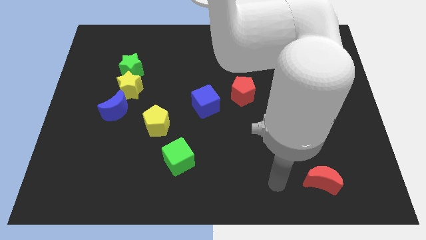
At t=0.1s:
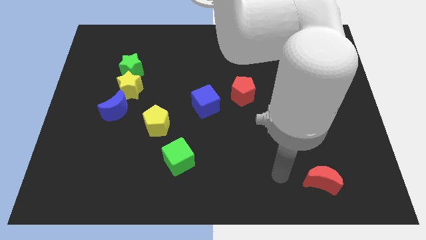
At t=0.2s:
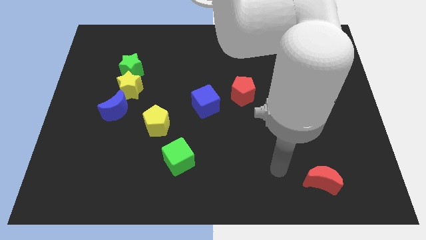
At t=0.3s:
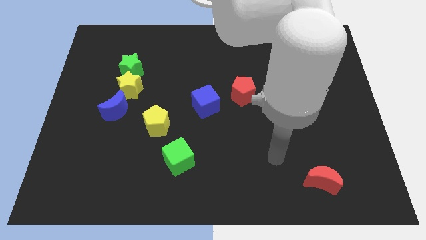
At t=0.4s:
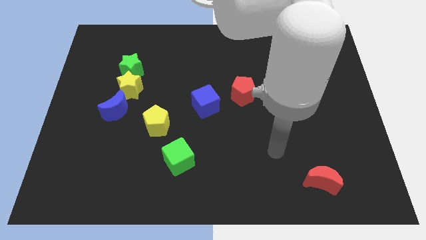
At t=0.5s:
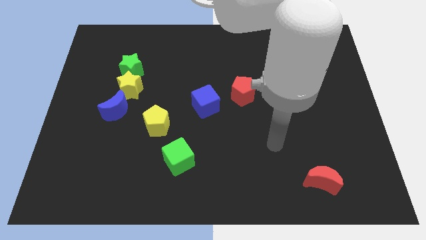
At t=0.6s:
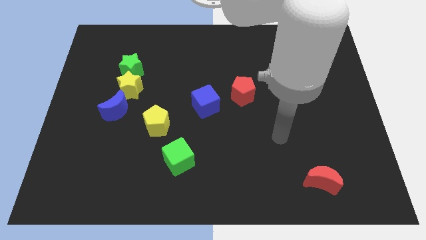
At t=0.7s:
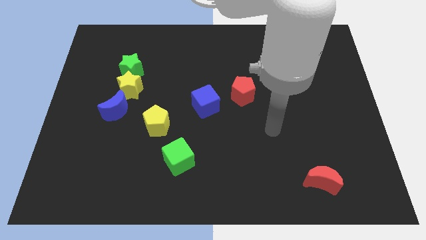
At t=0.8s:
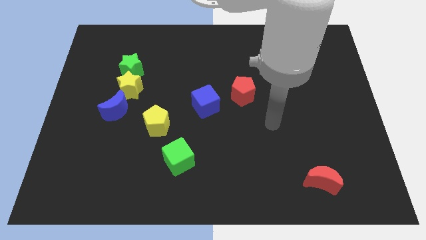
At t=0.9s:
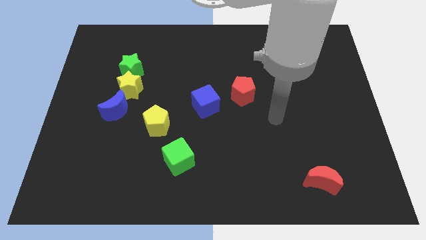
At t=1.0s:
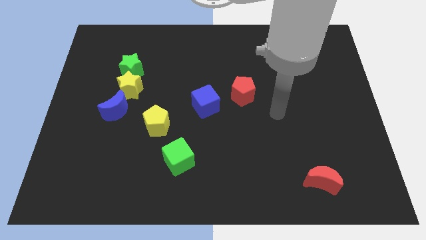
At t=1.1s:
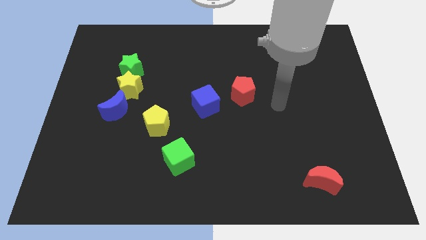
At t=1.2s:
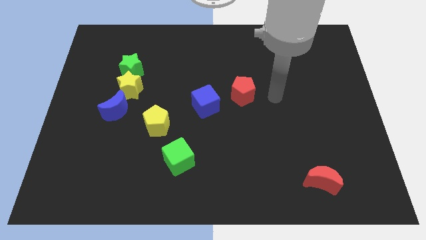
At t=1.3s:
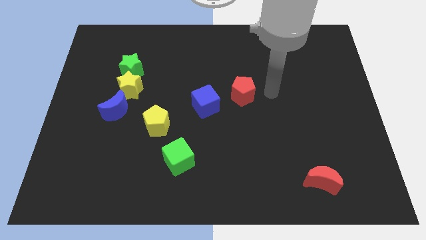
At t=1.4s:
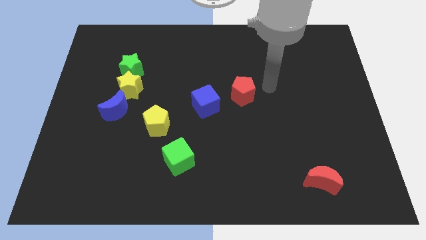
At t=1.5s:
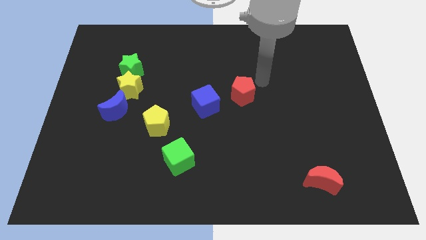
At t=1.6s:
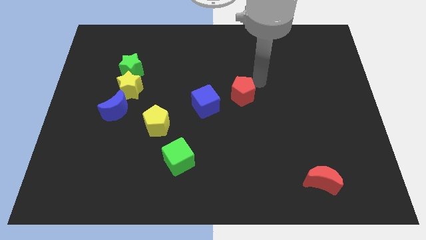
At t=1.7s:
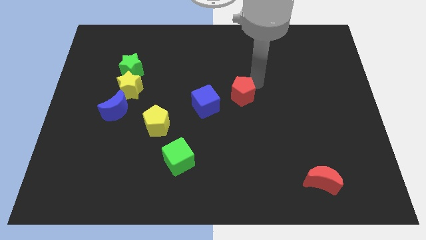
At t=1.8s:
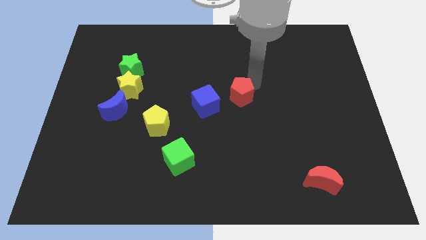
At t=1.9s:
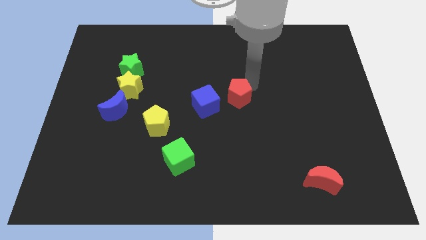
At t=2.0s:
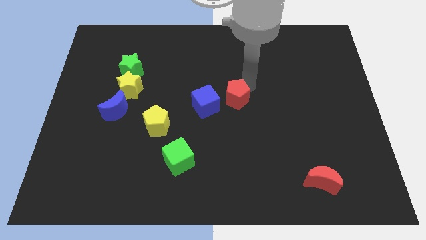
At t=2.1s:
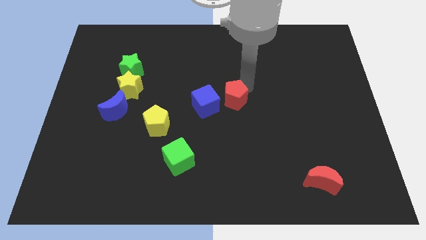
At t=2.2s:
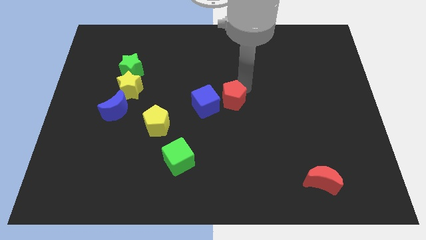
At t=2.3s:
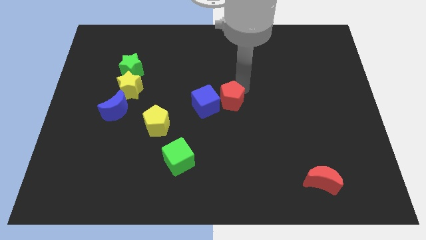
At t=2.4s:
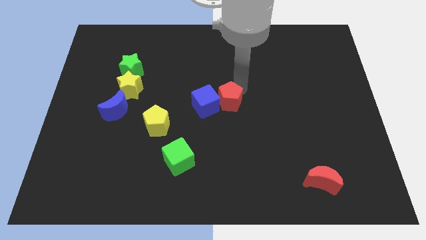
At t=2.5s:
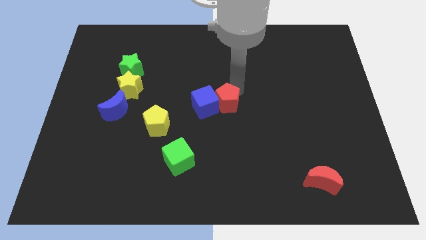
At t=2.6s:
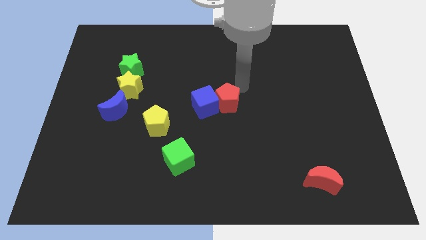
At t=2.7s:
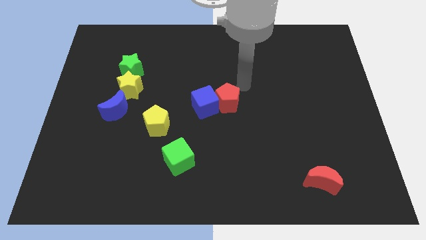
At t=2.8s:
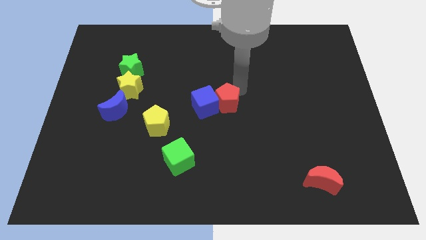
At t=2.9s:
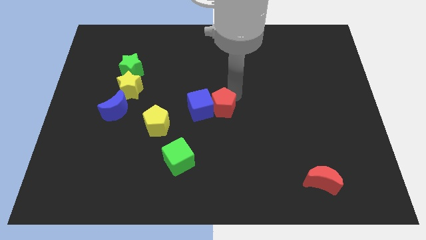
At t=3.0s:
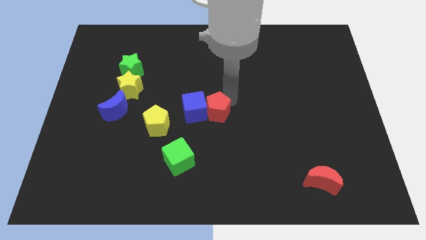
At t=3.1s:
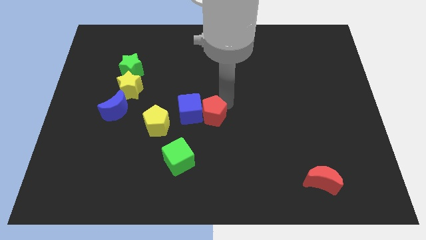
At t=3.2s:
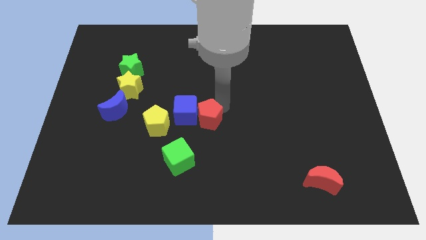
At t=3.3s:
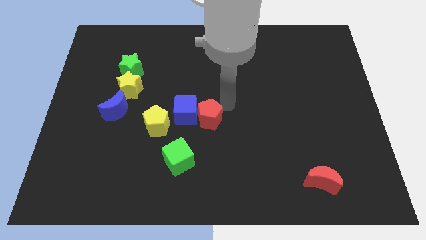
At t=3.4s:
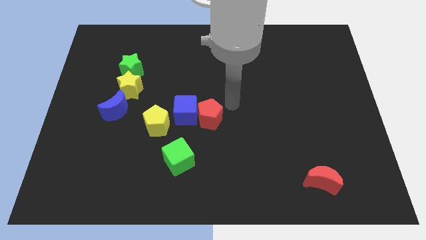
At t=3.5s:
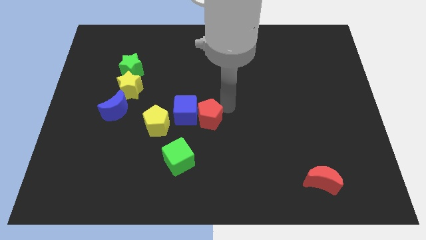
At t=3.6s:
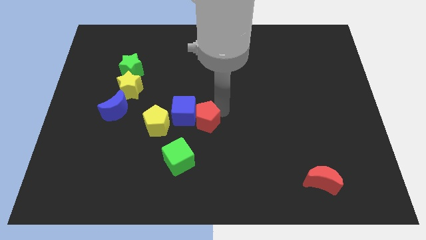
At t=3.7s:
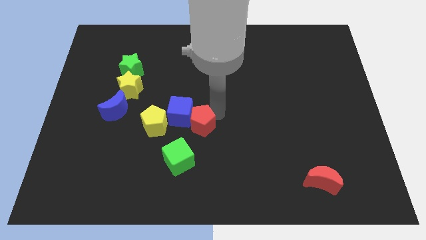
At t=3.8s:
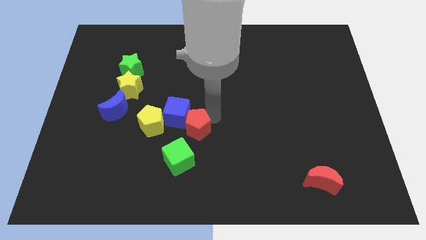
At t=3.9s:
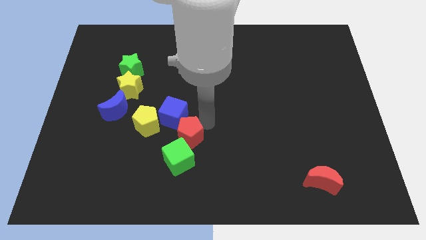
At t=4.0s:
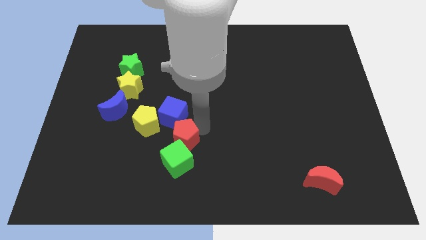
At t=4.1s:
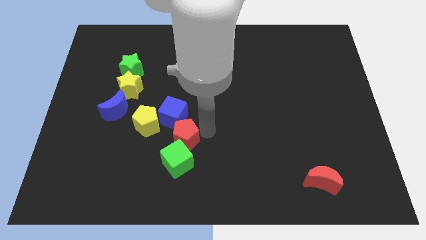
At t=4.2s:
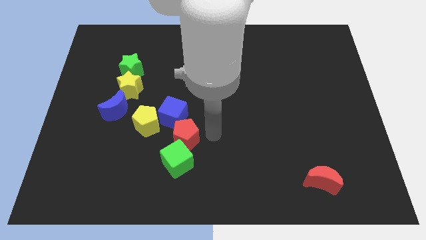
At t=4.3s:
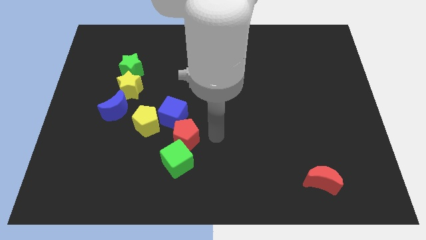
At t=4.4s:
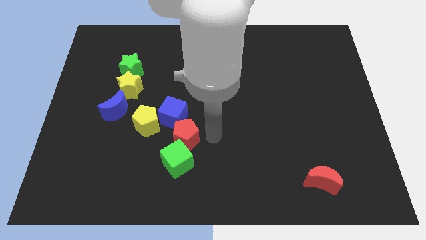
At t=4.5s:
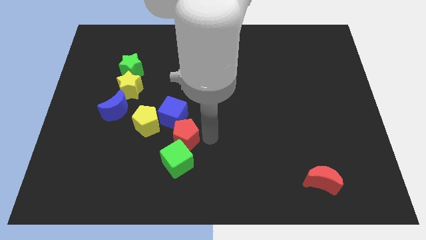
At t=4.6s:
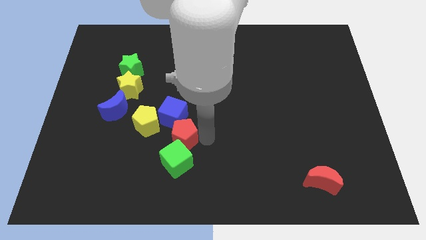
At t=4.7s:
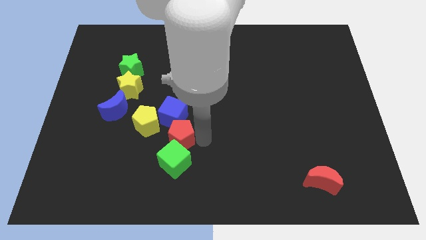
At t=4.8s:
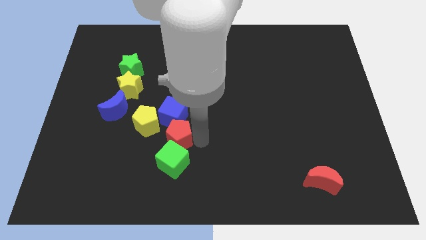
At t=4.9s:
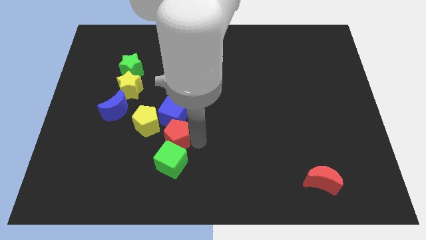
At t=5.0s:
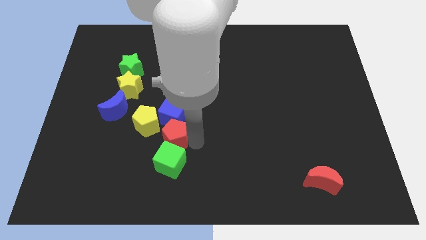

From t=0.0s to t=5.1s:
slide the red pentagon down and left diagonally

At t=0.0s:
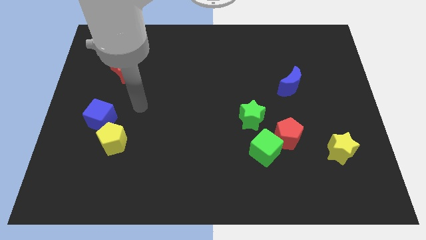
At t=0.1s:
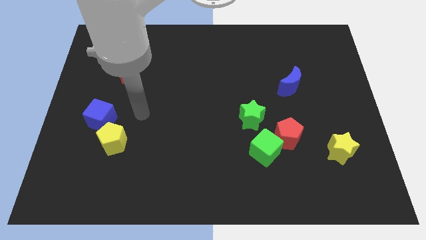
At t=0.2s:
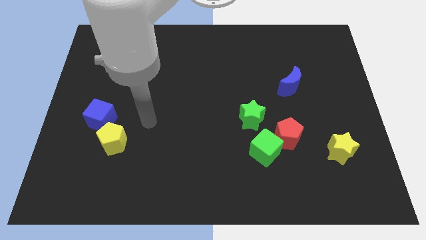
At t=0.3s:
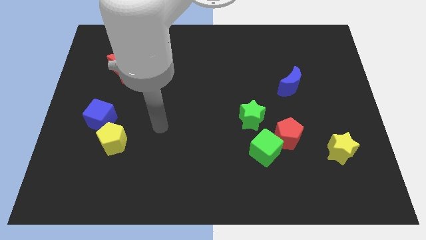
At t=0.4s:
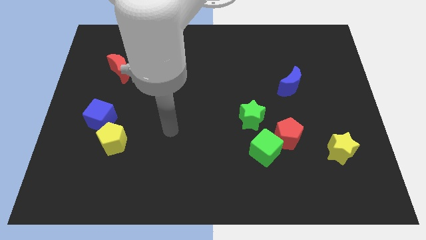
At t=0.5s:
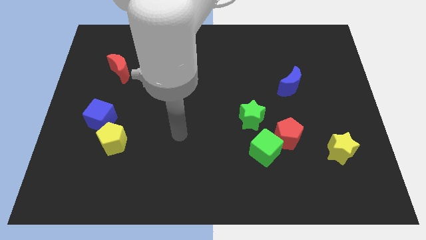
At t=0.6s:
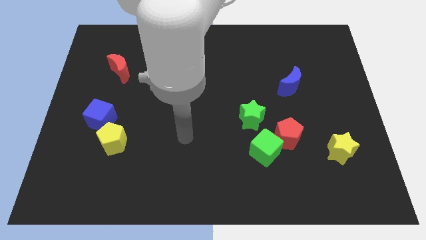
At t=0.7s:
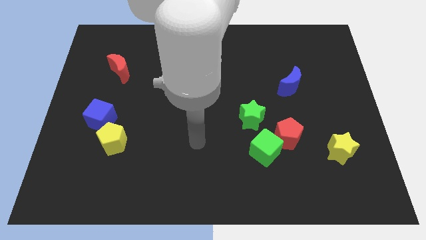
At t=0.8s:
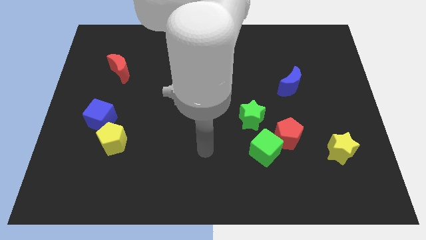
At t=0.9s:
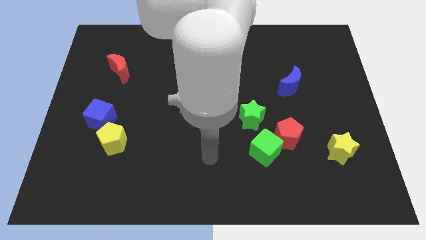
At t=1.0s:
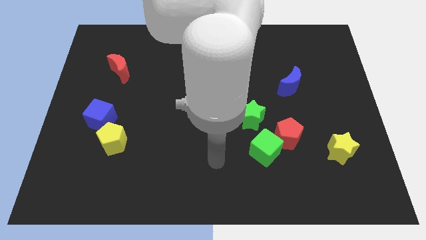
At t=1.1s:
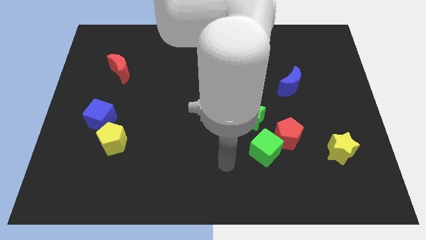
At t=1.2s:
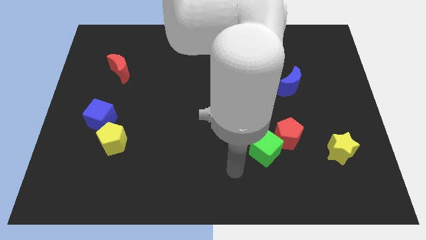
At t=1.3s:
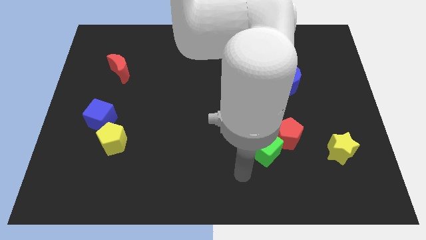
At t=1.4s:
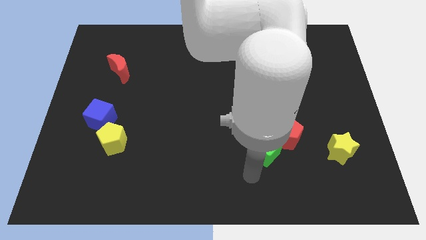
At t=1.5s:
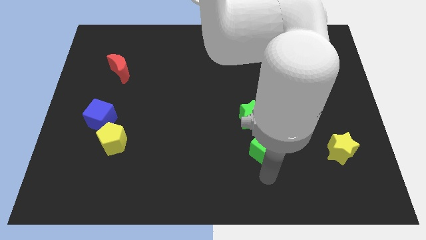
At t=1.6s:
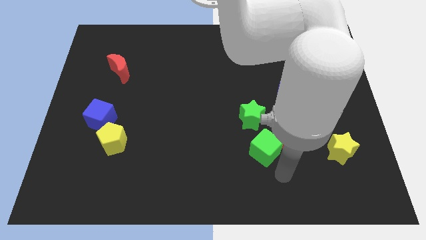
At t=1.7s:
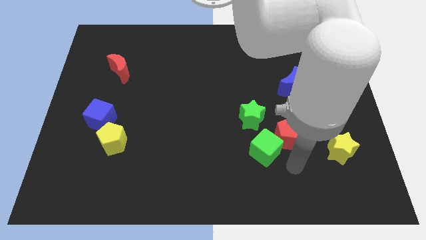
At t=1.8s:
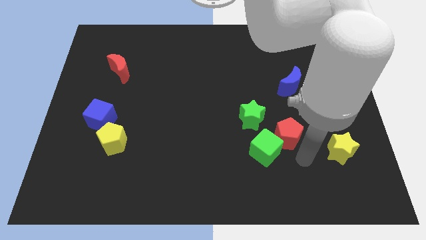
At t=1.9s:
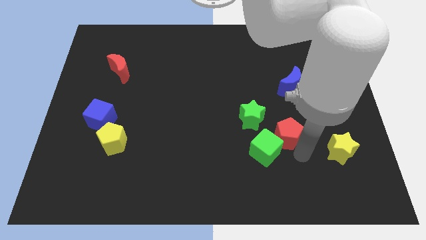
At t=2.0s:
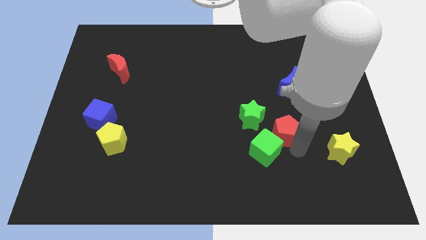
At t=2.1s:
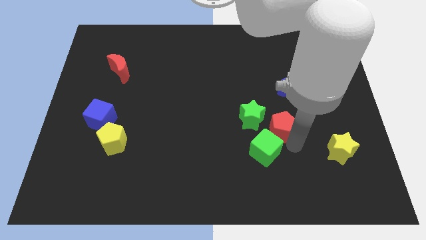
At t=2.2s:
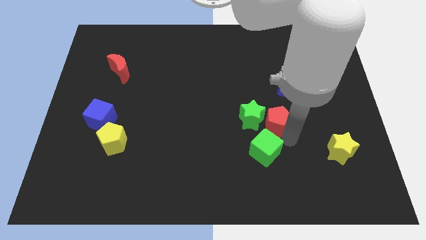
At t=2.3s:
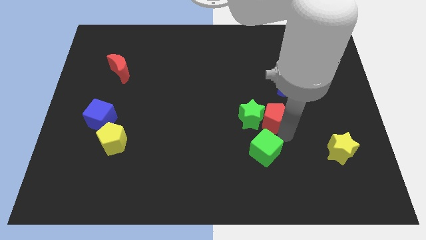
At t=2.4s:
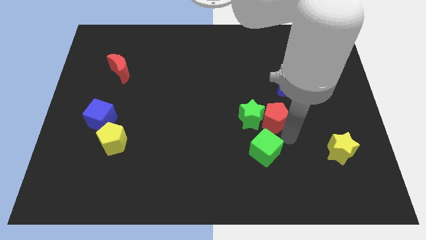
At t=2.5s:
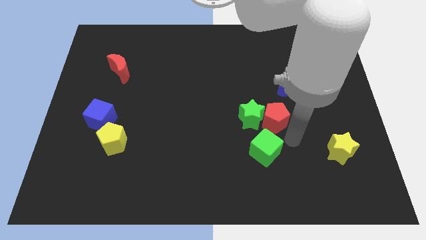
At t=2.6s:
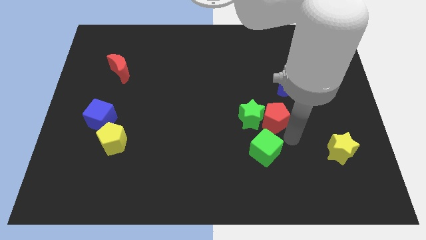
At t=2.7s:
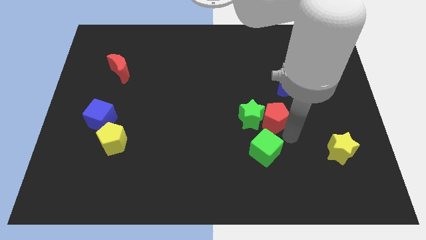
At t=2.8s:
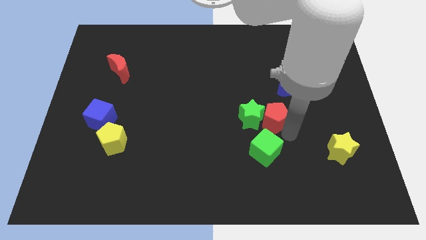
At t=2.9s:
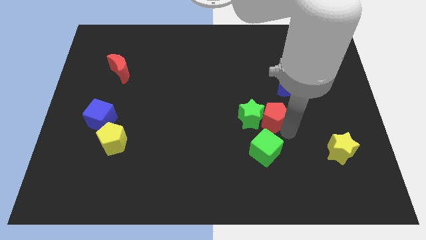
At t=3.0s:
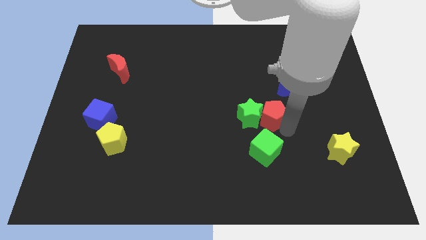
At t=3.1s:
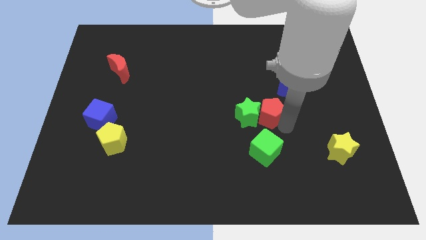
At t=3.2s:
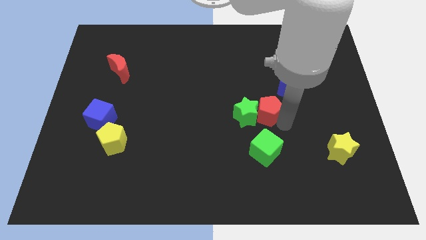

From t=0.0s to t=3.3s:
move the red pentagon diagonally up and left a little

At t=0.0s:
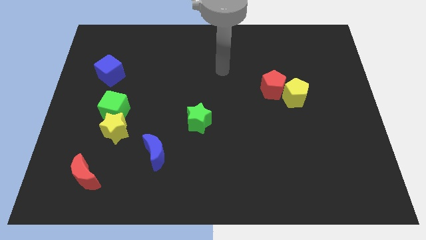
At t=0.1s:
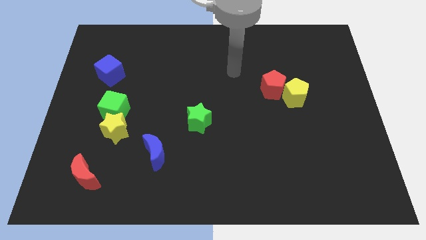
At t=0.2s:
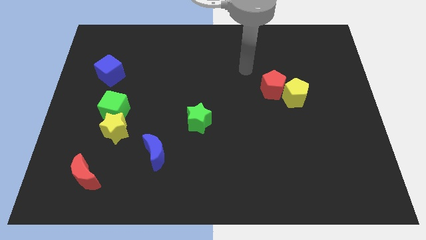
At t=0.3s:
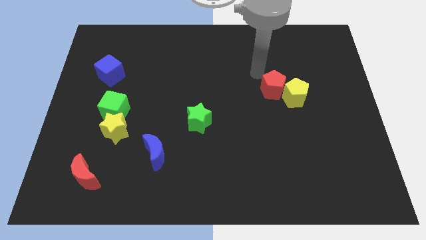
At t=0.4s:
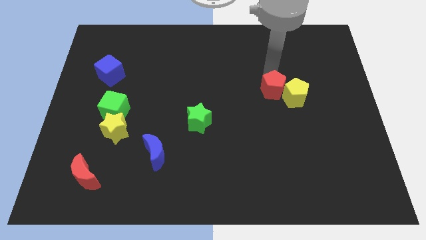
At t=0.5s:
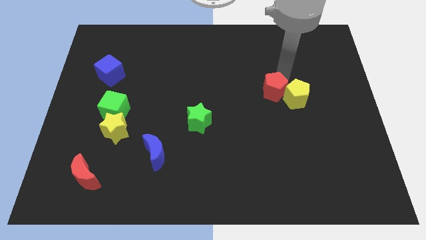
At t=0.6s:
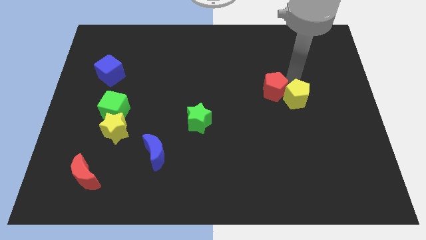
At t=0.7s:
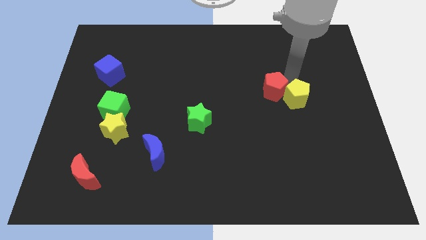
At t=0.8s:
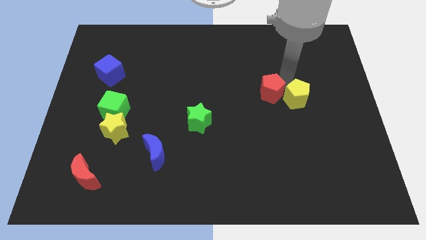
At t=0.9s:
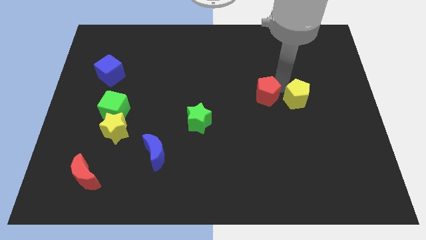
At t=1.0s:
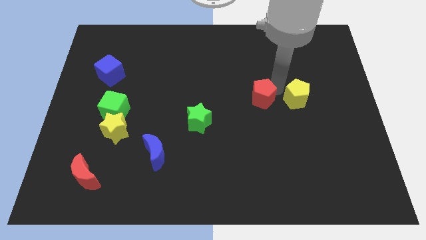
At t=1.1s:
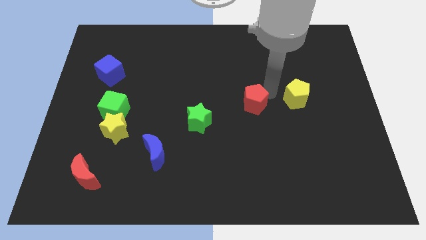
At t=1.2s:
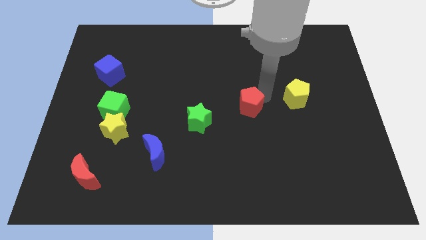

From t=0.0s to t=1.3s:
slightly move the red pentagon downwards and left
